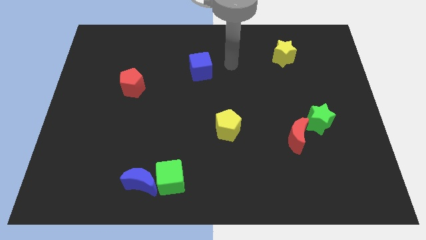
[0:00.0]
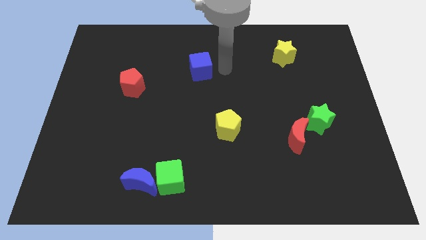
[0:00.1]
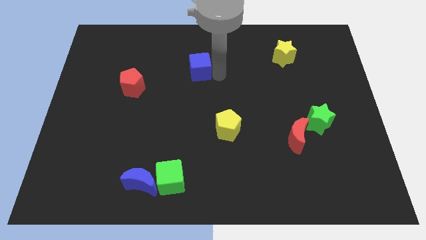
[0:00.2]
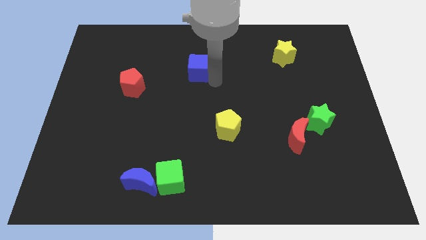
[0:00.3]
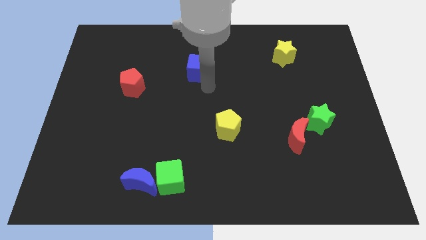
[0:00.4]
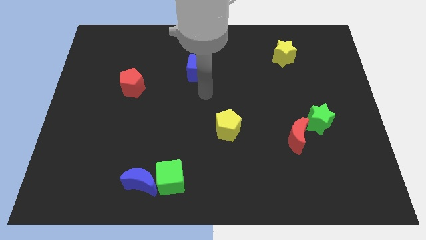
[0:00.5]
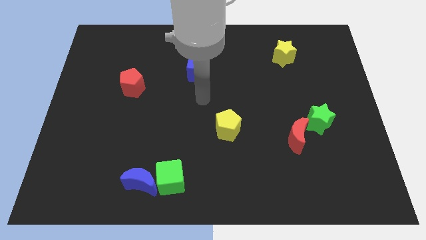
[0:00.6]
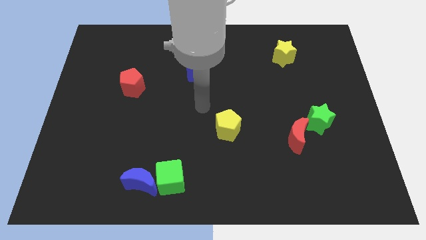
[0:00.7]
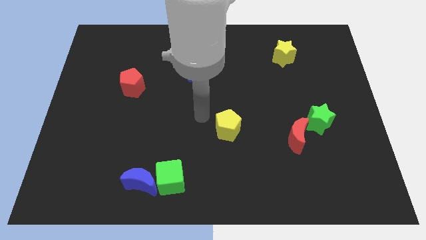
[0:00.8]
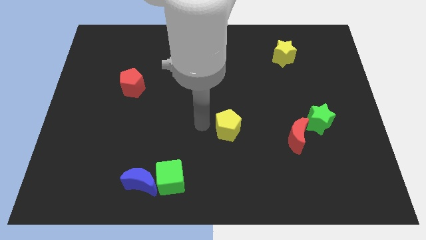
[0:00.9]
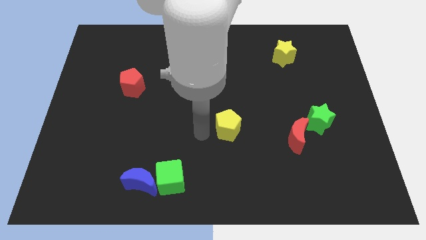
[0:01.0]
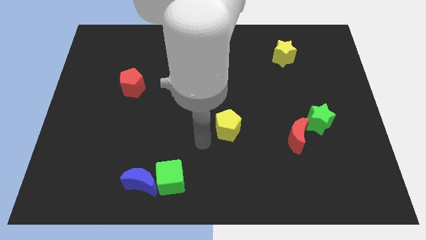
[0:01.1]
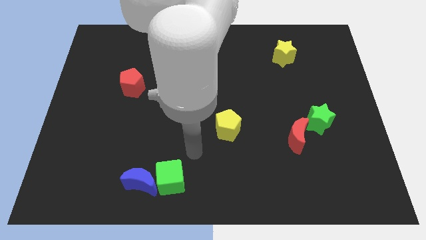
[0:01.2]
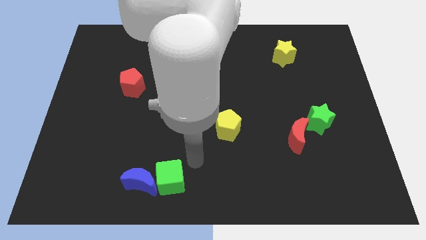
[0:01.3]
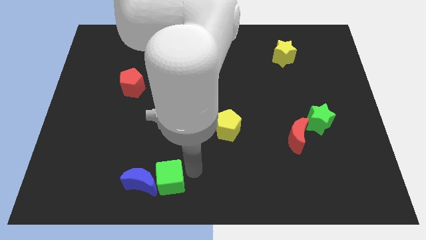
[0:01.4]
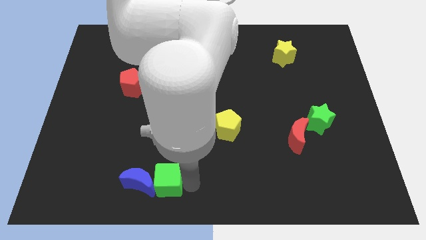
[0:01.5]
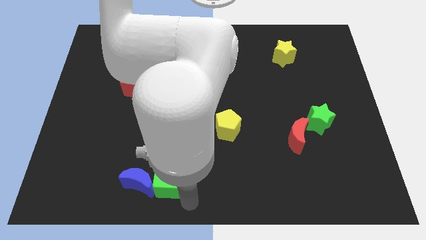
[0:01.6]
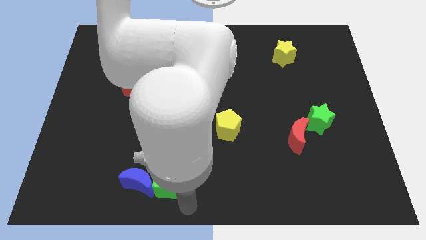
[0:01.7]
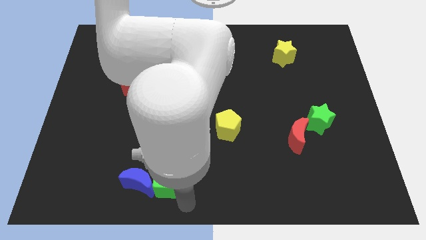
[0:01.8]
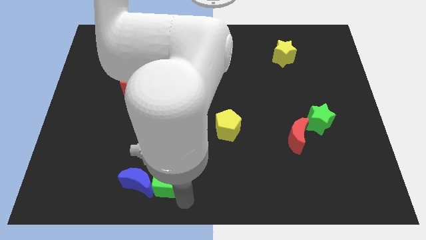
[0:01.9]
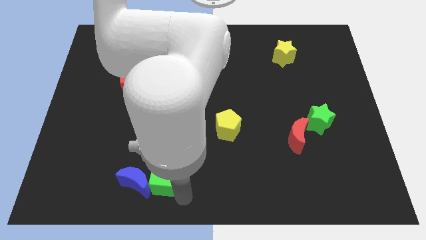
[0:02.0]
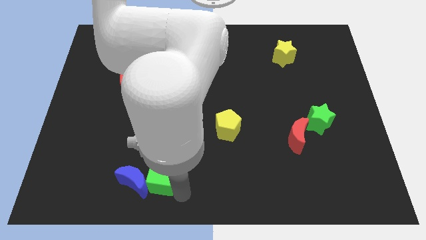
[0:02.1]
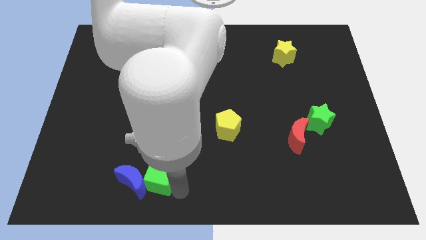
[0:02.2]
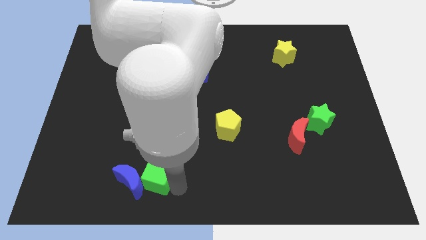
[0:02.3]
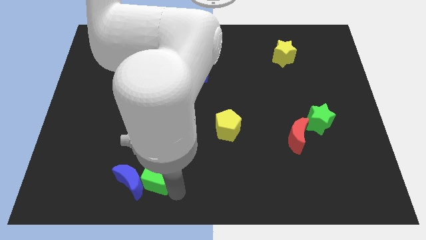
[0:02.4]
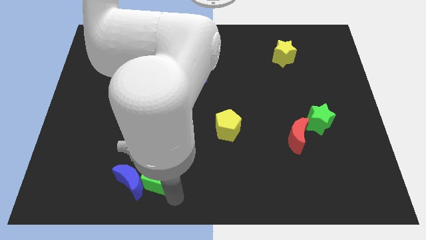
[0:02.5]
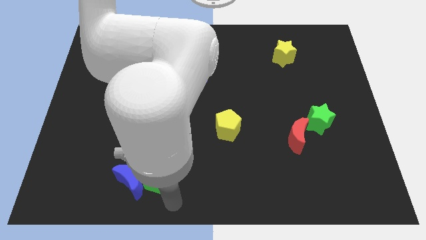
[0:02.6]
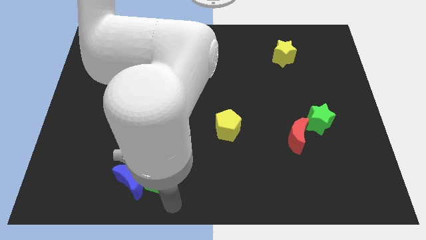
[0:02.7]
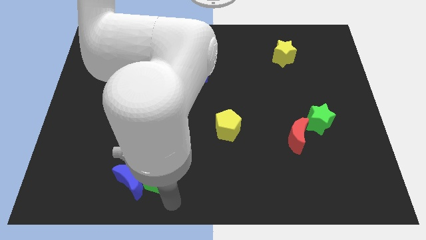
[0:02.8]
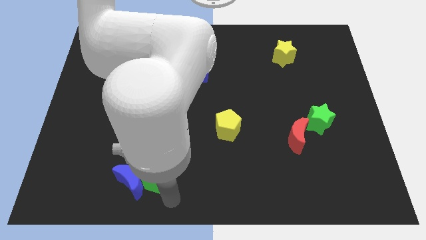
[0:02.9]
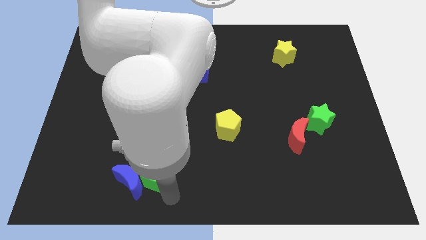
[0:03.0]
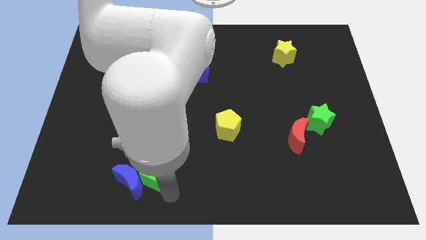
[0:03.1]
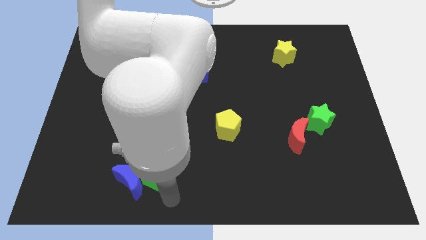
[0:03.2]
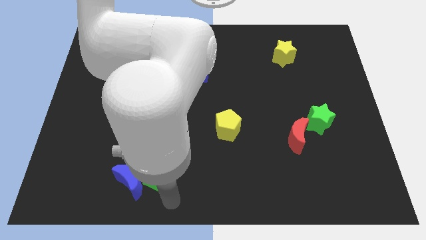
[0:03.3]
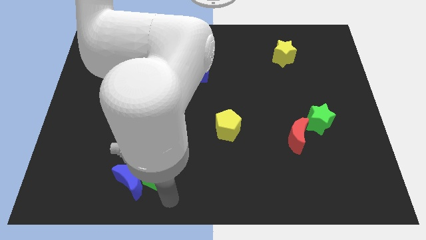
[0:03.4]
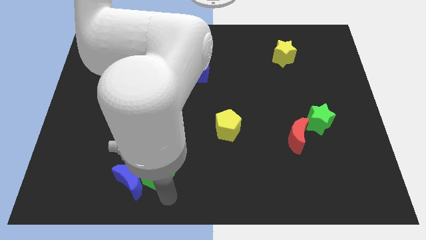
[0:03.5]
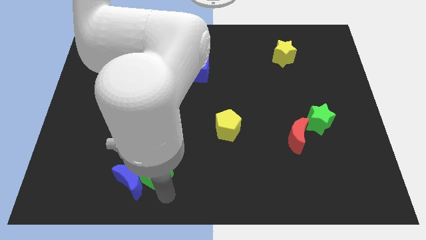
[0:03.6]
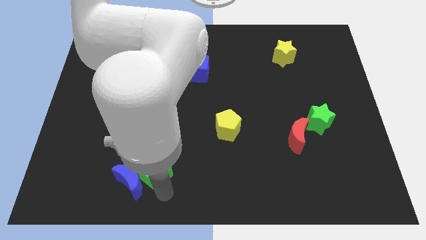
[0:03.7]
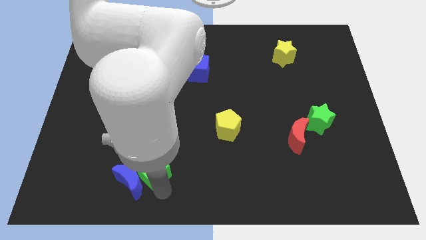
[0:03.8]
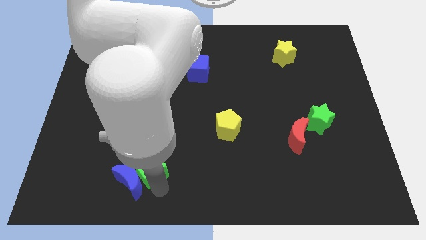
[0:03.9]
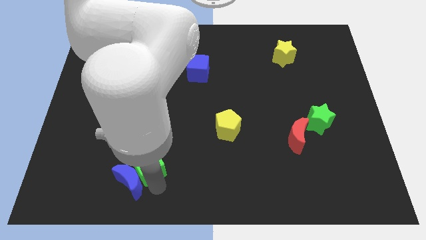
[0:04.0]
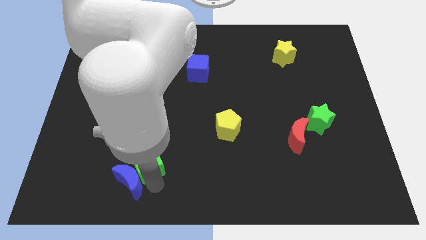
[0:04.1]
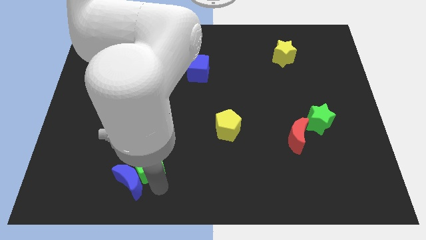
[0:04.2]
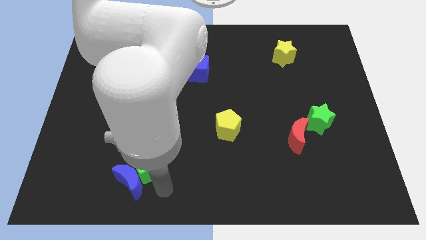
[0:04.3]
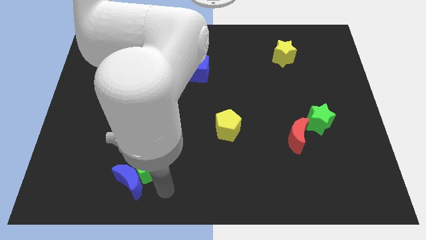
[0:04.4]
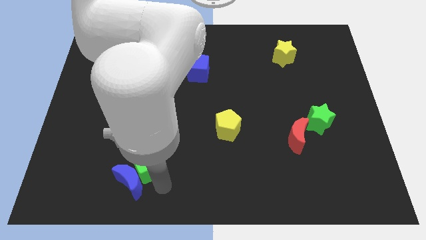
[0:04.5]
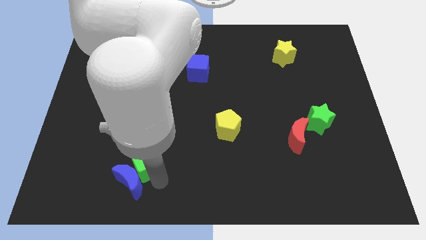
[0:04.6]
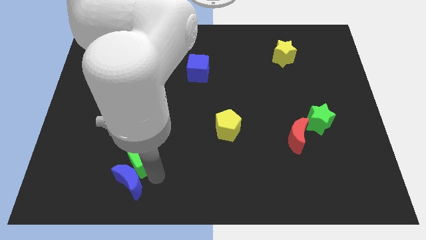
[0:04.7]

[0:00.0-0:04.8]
slightly move the green cube up and to the left

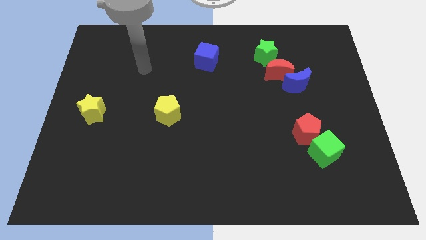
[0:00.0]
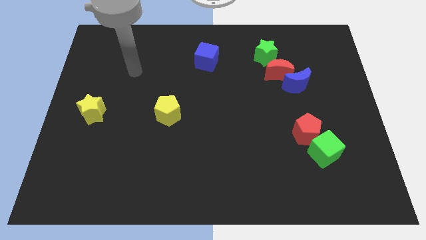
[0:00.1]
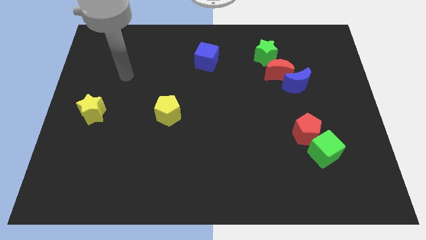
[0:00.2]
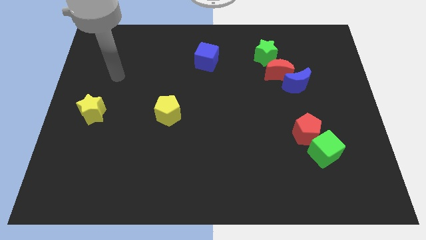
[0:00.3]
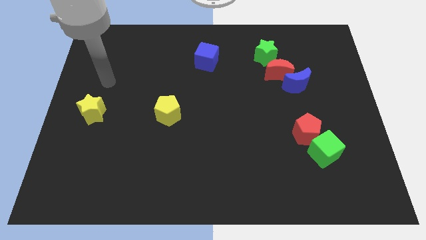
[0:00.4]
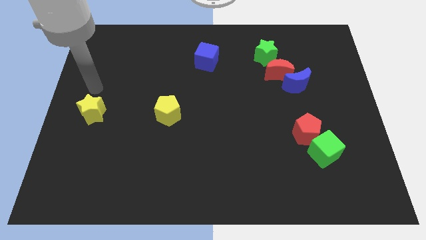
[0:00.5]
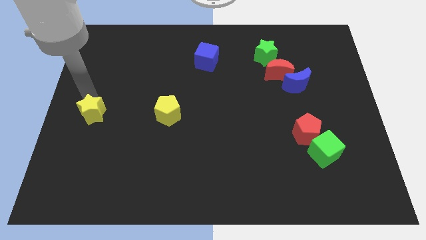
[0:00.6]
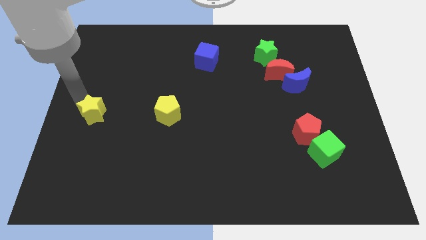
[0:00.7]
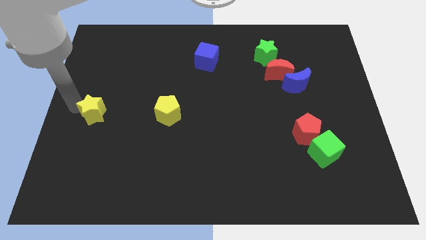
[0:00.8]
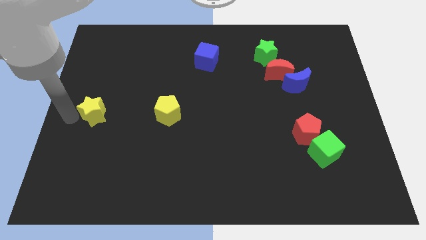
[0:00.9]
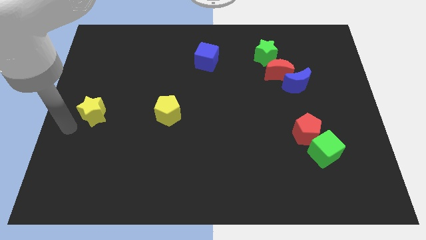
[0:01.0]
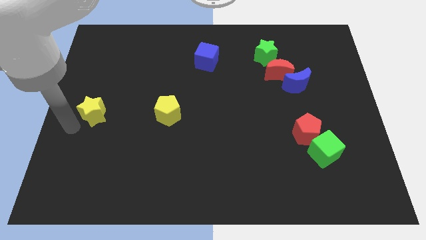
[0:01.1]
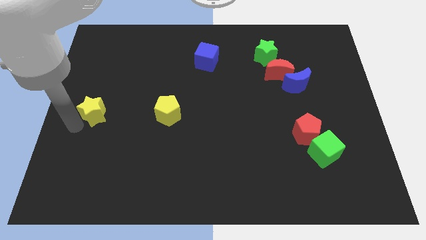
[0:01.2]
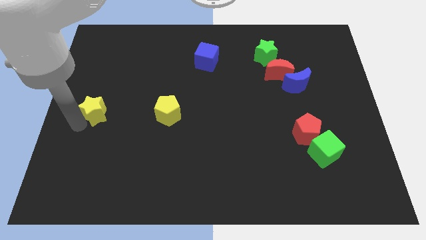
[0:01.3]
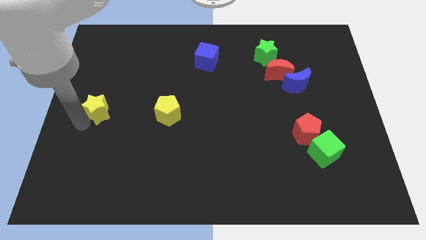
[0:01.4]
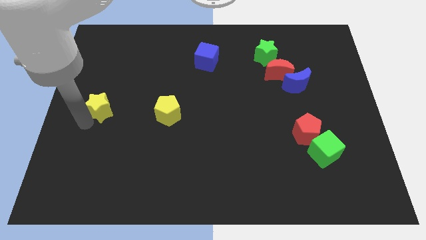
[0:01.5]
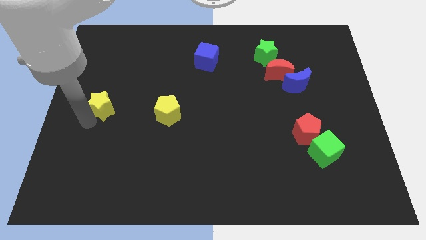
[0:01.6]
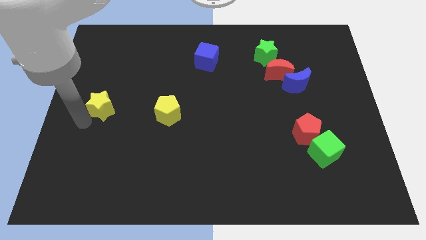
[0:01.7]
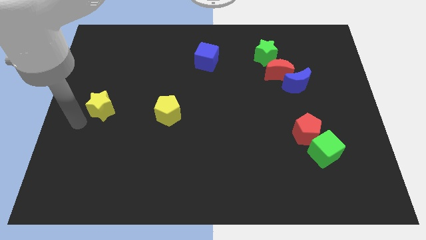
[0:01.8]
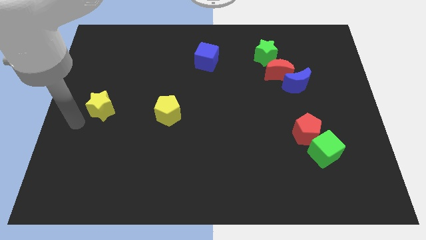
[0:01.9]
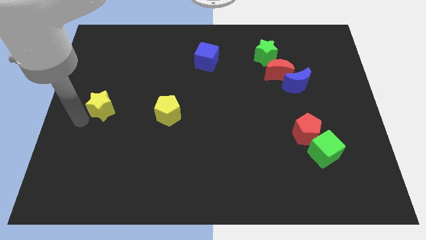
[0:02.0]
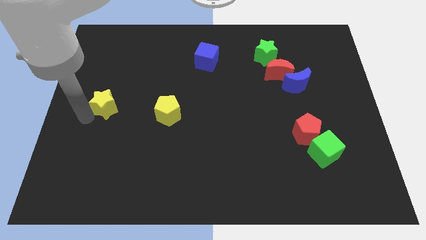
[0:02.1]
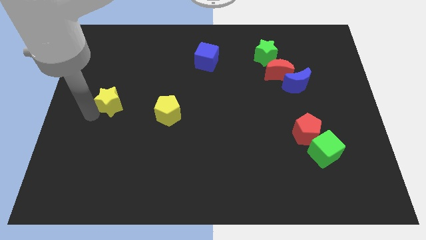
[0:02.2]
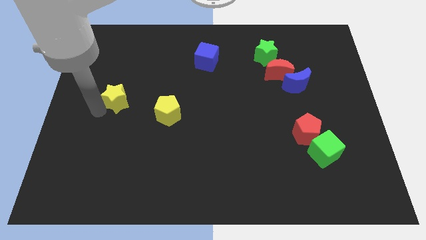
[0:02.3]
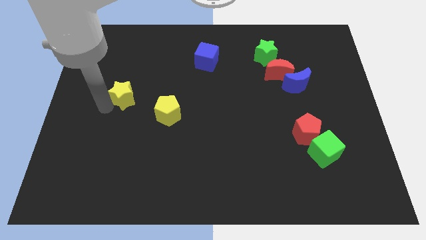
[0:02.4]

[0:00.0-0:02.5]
slide the yellow star slightly up and right diagonally

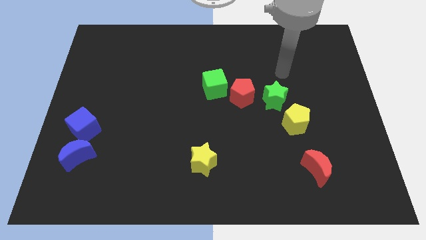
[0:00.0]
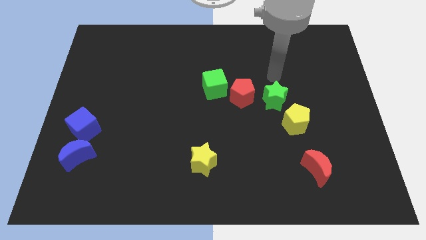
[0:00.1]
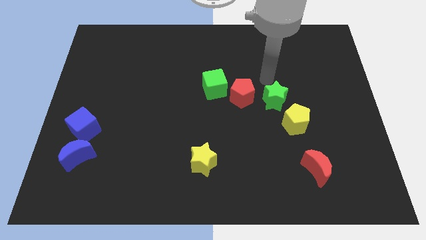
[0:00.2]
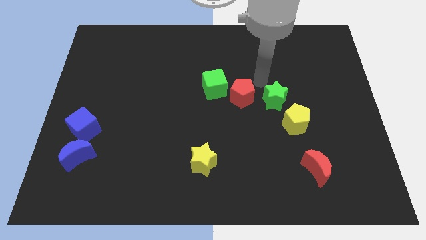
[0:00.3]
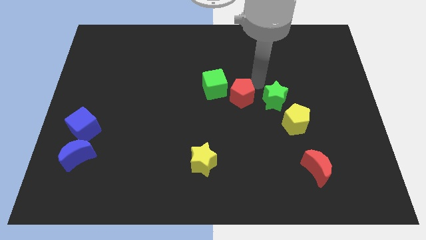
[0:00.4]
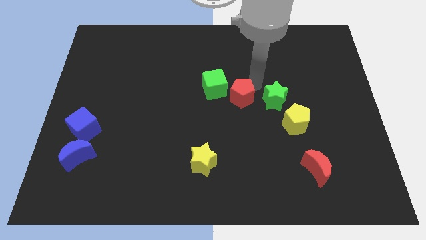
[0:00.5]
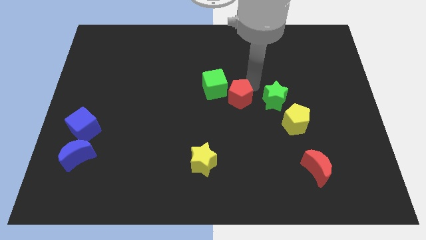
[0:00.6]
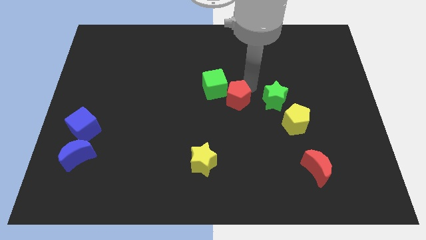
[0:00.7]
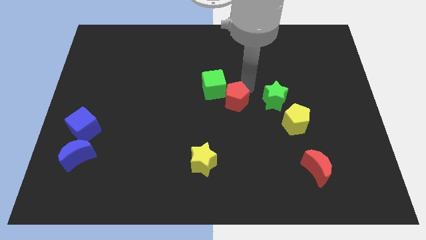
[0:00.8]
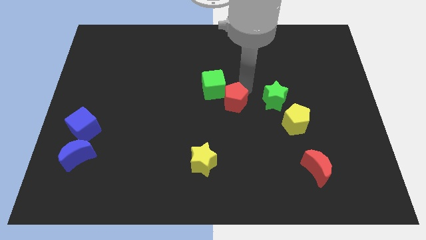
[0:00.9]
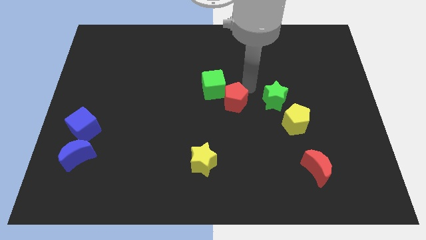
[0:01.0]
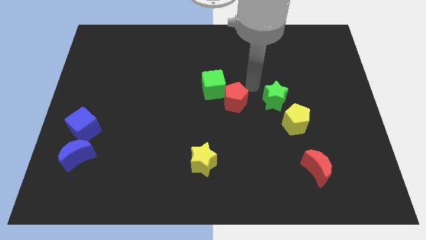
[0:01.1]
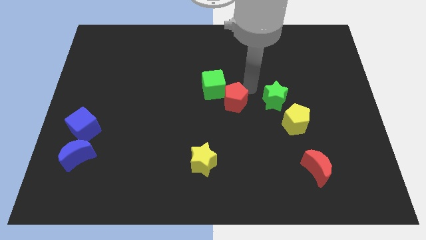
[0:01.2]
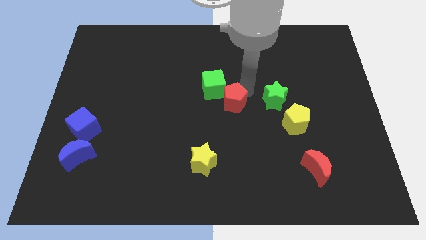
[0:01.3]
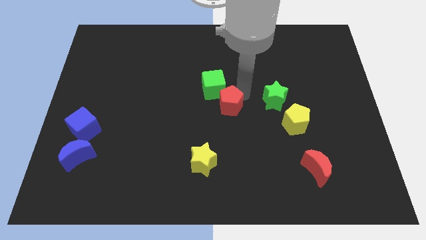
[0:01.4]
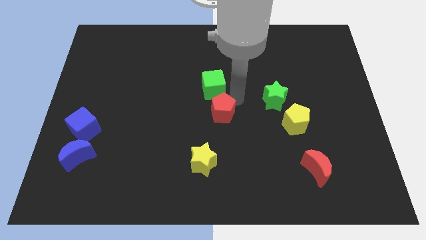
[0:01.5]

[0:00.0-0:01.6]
push the red pentagon downwards and then left a bit
